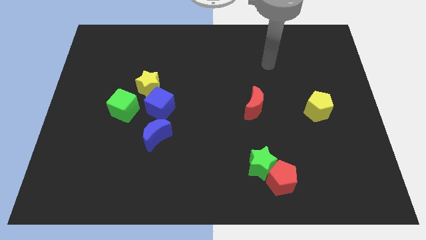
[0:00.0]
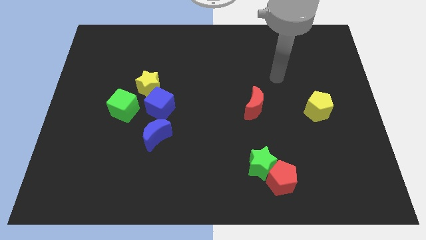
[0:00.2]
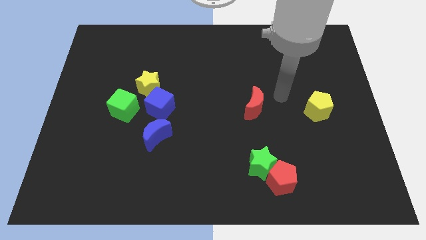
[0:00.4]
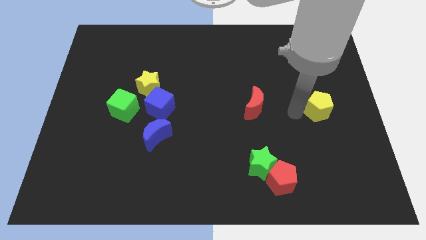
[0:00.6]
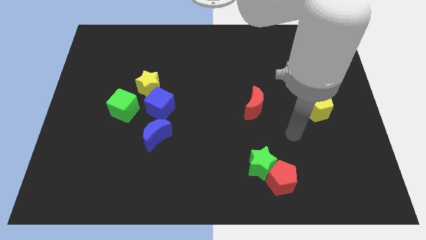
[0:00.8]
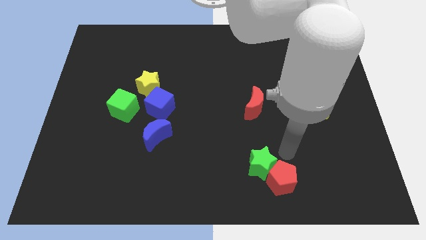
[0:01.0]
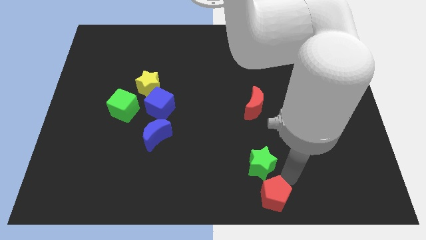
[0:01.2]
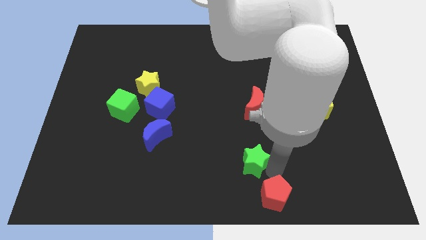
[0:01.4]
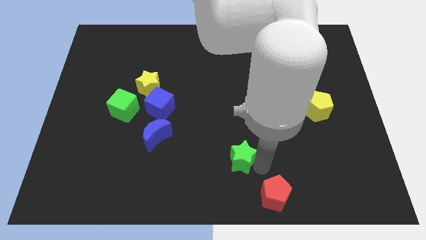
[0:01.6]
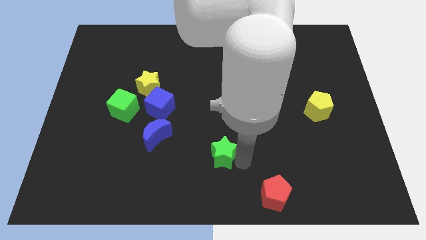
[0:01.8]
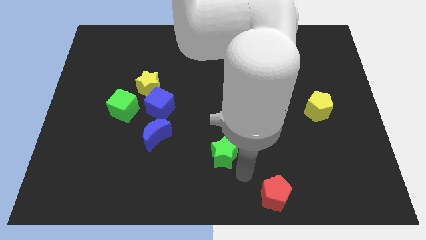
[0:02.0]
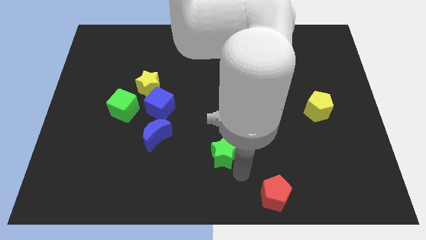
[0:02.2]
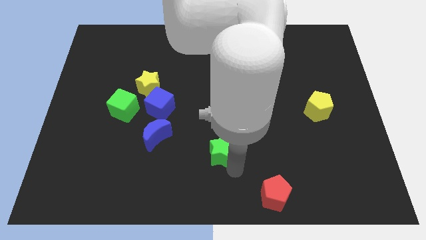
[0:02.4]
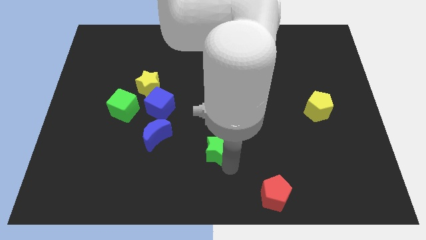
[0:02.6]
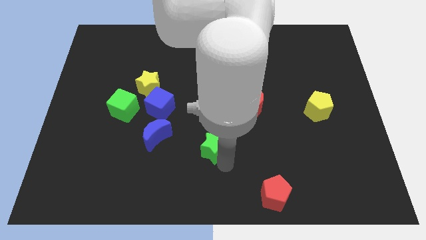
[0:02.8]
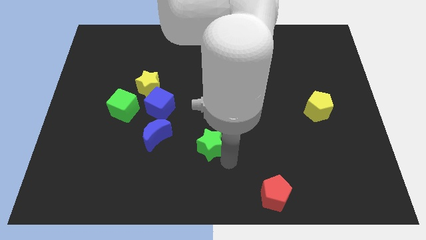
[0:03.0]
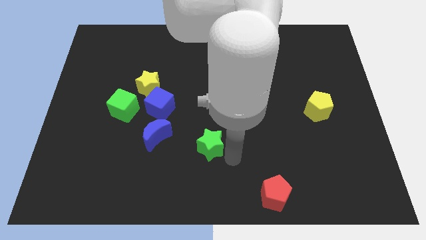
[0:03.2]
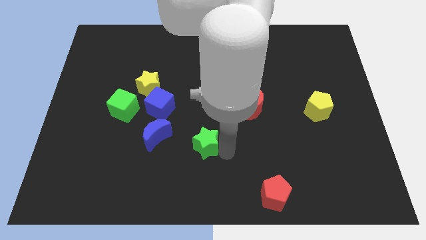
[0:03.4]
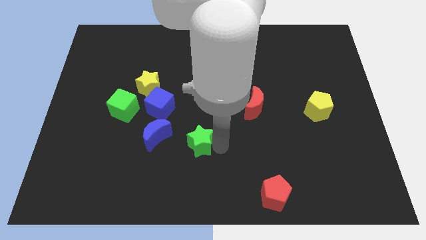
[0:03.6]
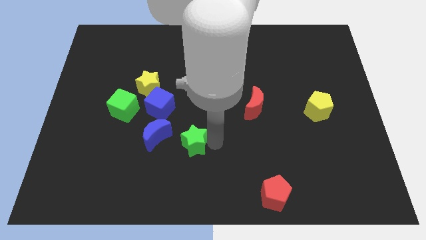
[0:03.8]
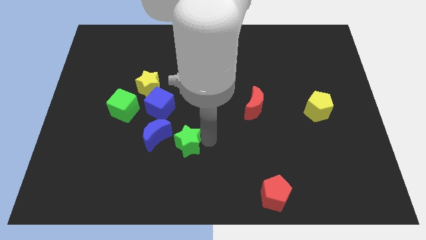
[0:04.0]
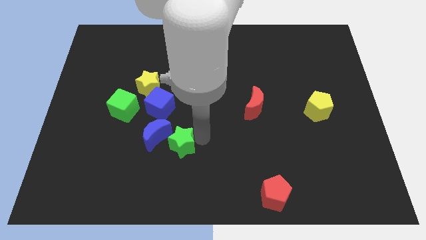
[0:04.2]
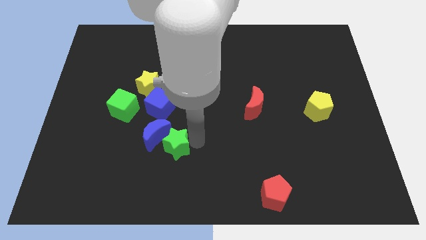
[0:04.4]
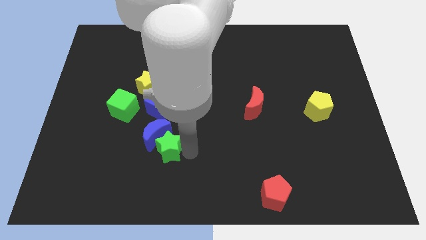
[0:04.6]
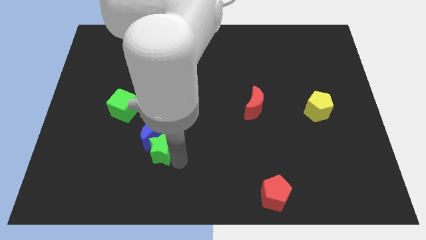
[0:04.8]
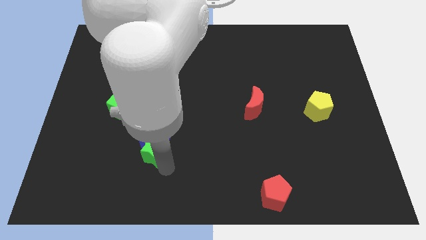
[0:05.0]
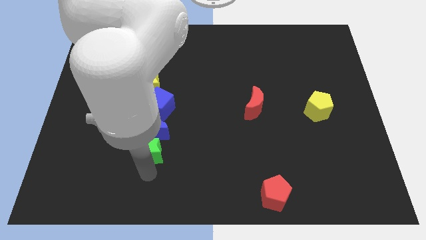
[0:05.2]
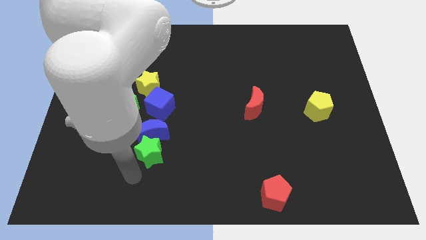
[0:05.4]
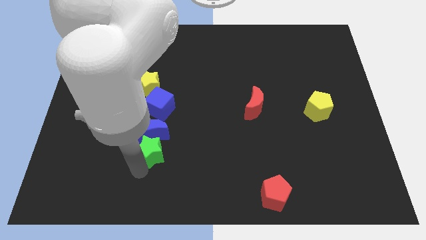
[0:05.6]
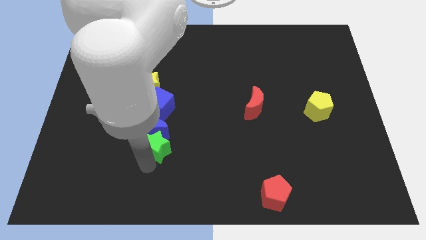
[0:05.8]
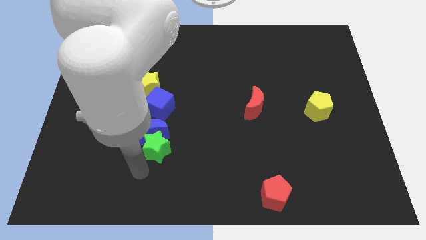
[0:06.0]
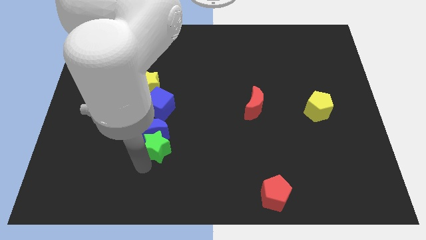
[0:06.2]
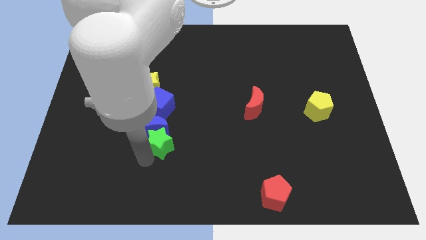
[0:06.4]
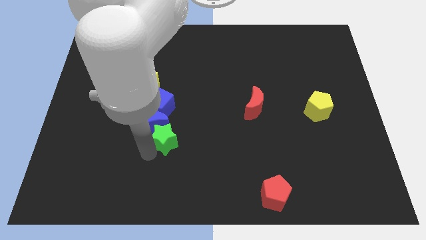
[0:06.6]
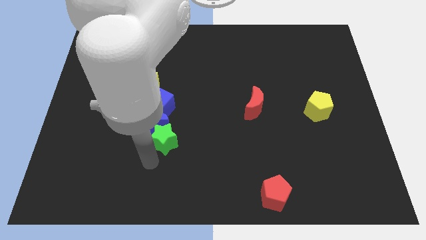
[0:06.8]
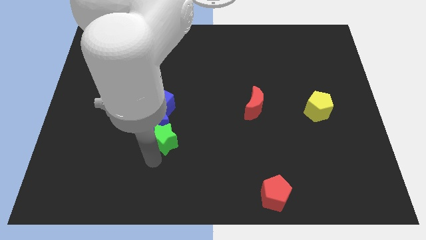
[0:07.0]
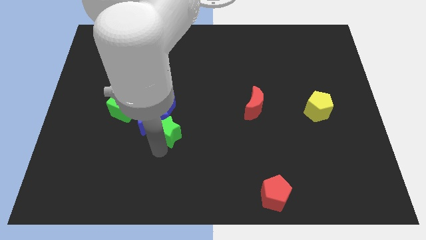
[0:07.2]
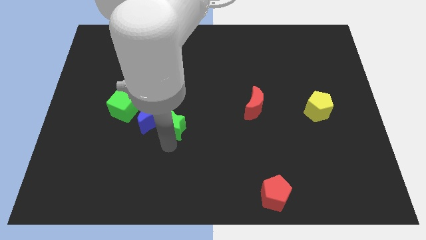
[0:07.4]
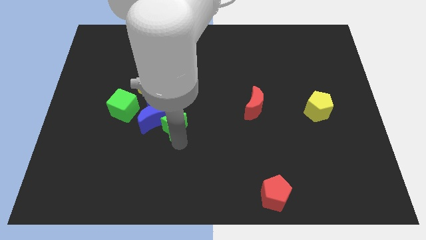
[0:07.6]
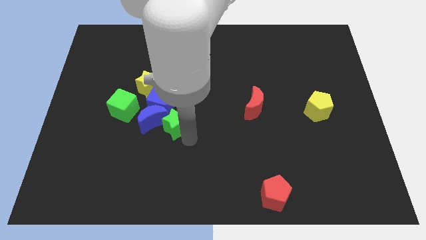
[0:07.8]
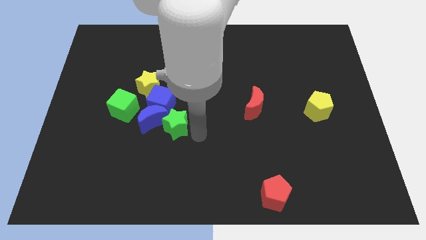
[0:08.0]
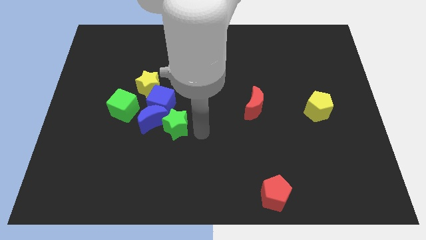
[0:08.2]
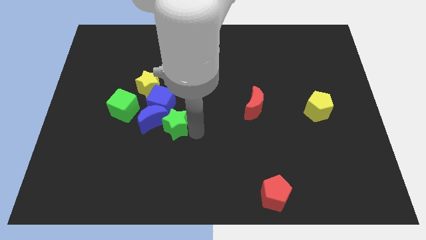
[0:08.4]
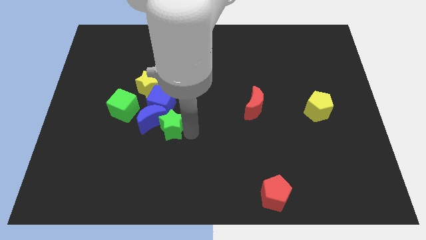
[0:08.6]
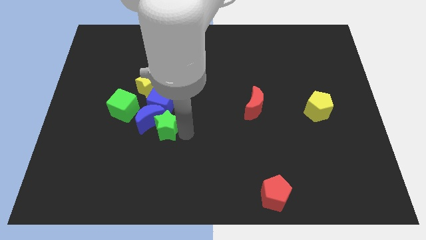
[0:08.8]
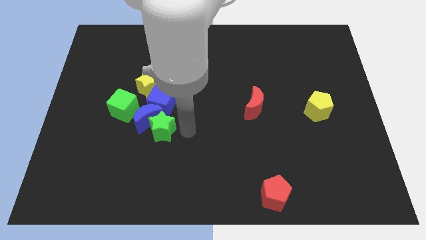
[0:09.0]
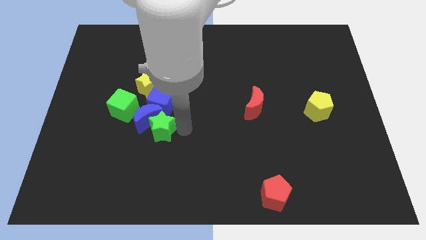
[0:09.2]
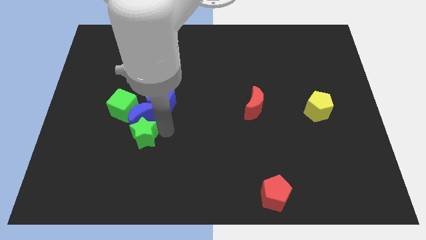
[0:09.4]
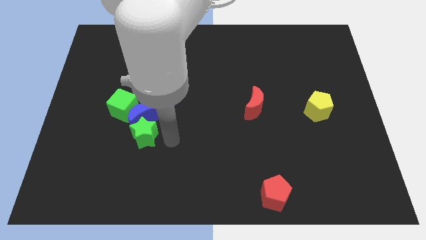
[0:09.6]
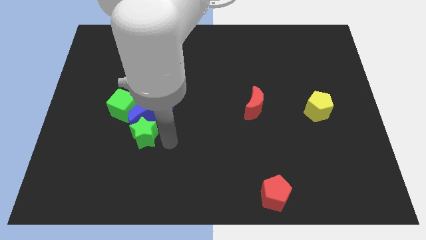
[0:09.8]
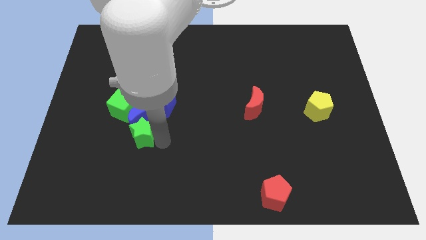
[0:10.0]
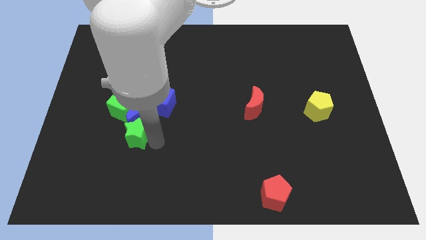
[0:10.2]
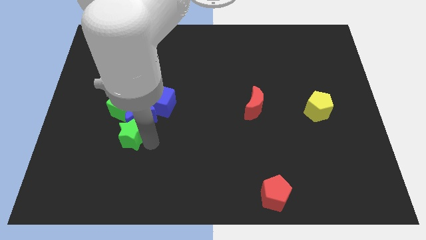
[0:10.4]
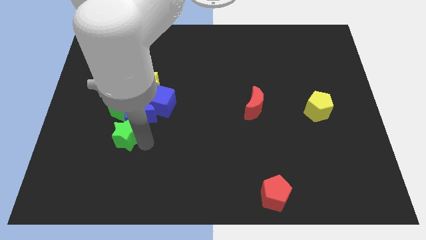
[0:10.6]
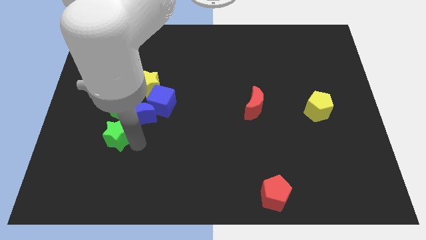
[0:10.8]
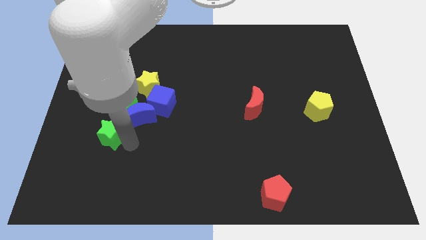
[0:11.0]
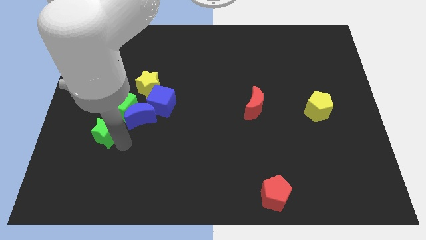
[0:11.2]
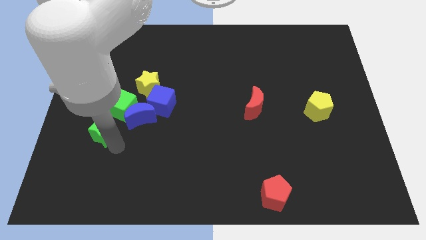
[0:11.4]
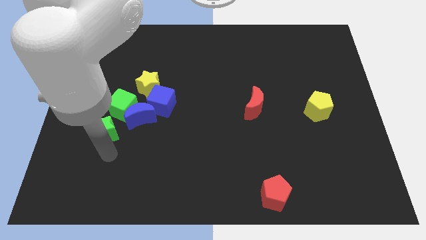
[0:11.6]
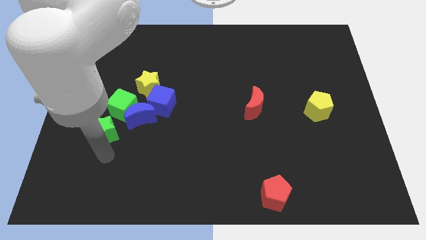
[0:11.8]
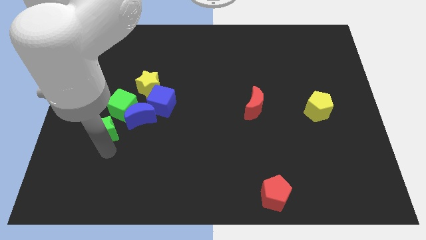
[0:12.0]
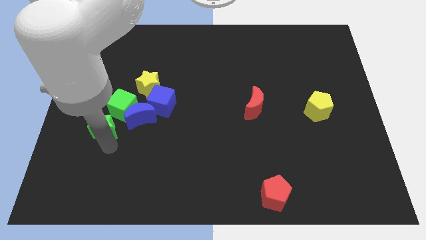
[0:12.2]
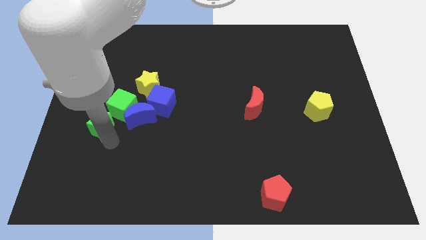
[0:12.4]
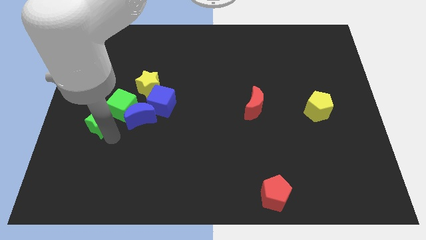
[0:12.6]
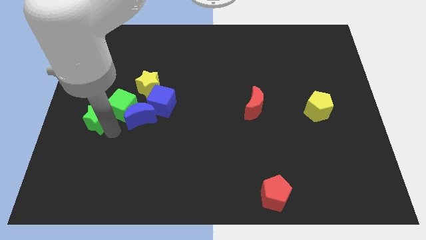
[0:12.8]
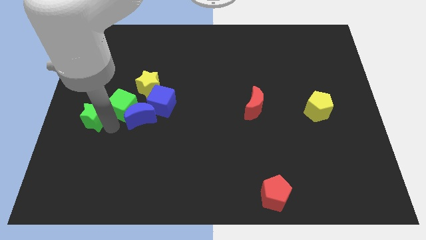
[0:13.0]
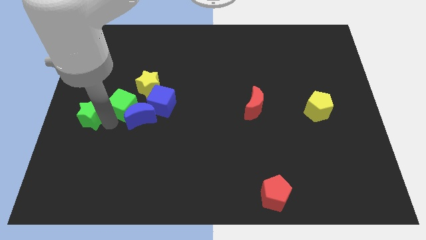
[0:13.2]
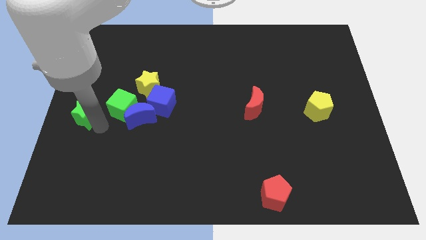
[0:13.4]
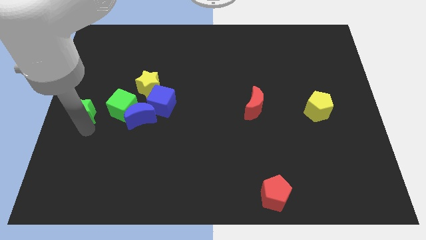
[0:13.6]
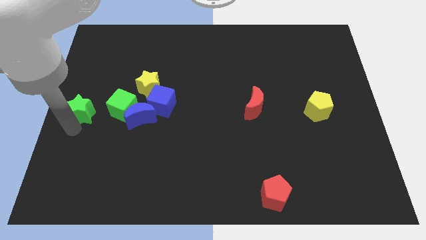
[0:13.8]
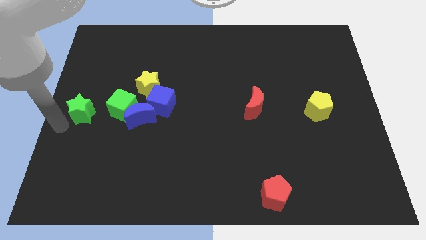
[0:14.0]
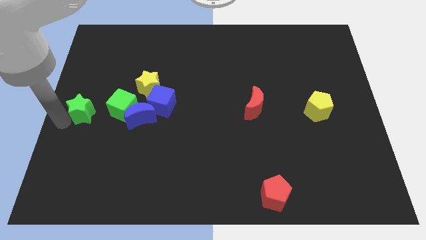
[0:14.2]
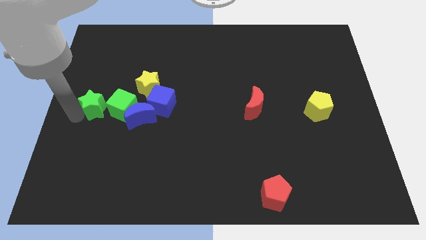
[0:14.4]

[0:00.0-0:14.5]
move the green star to the top left of the green cube
